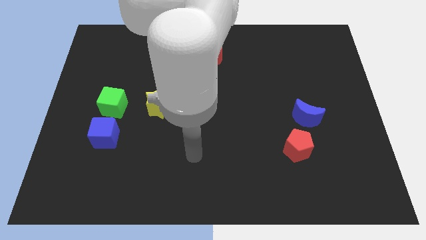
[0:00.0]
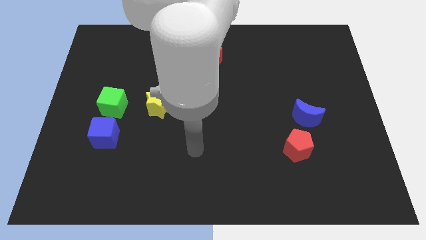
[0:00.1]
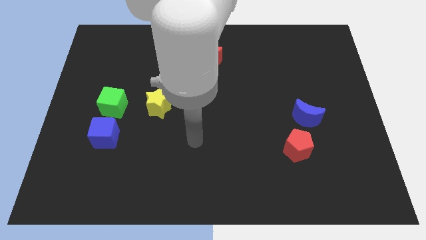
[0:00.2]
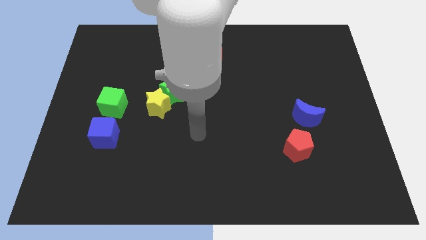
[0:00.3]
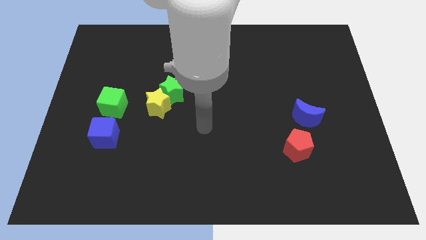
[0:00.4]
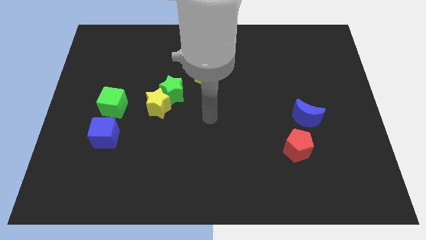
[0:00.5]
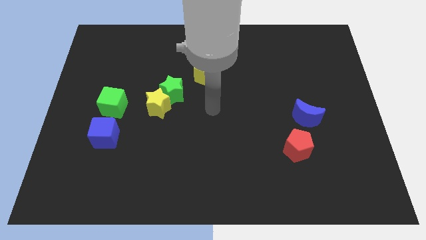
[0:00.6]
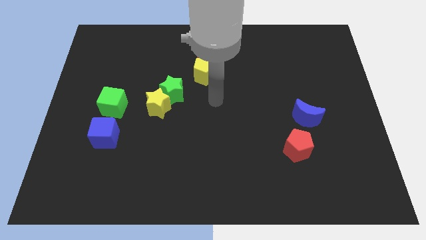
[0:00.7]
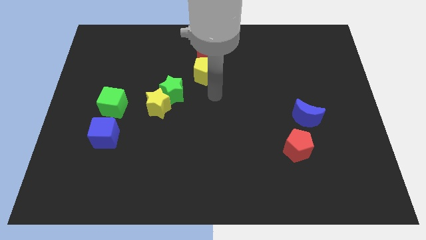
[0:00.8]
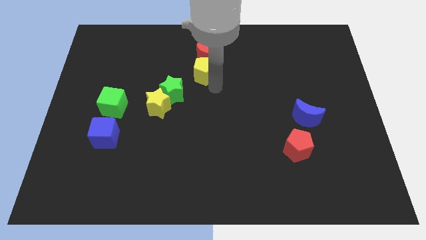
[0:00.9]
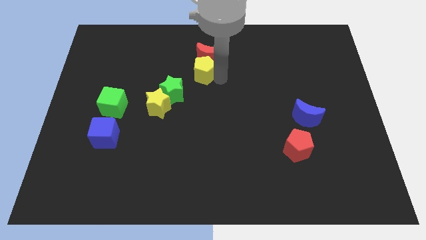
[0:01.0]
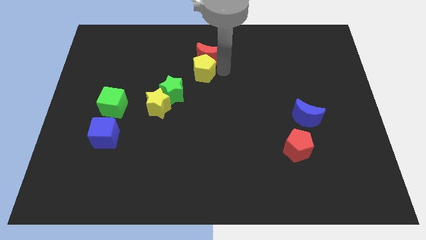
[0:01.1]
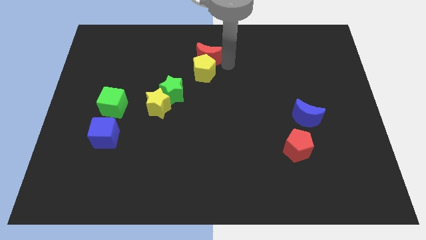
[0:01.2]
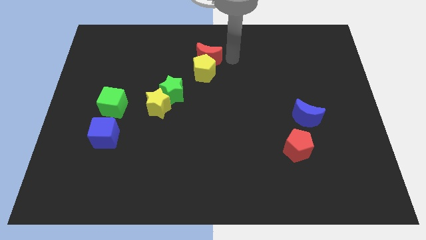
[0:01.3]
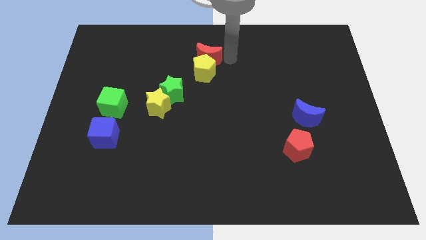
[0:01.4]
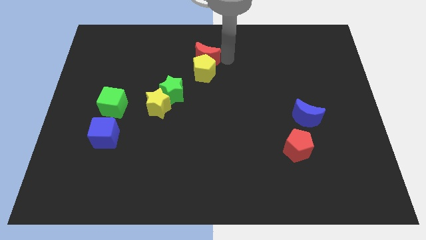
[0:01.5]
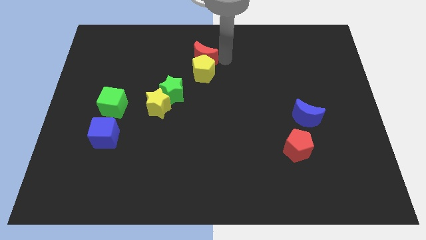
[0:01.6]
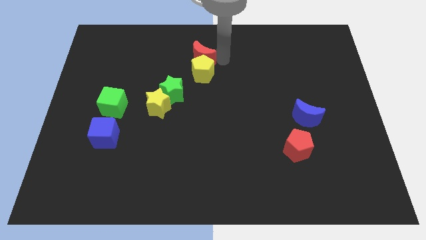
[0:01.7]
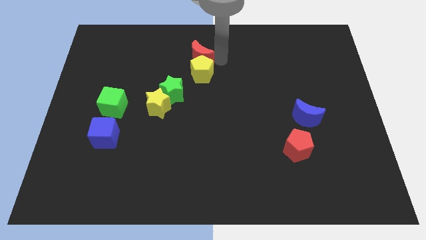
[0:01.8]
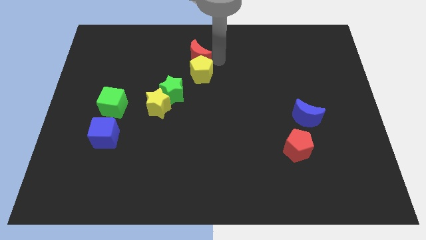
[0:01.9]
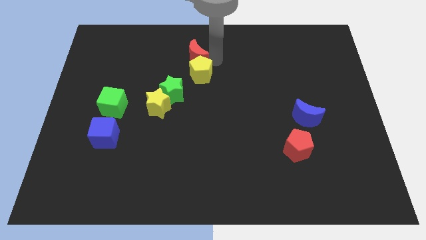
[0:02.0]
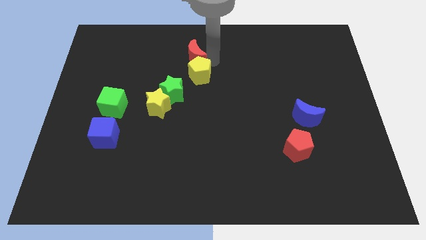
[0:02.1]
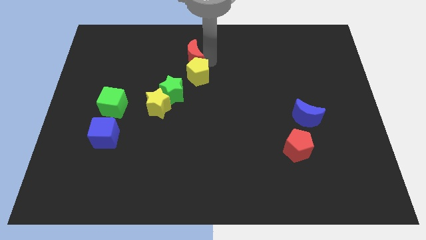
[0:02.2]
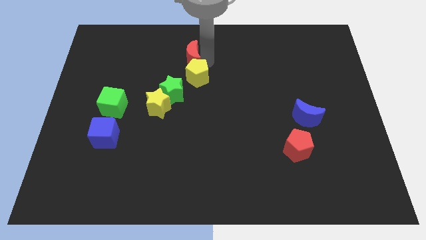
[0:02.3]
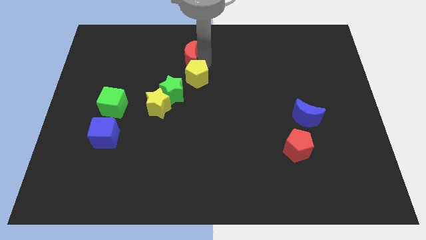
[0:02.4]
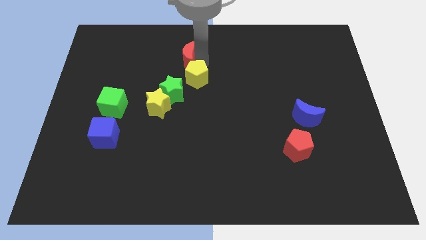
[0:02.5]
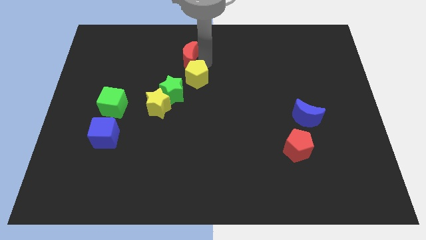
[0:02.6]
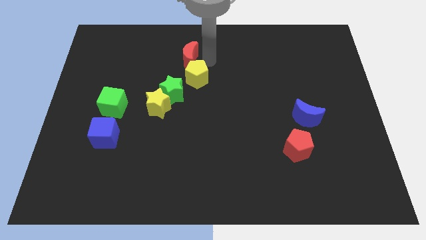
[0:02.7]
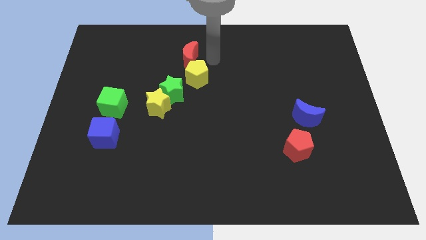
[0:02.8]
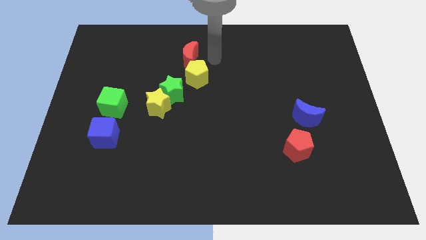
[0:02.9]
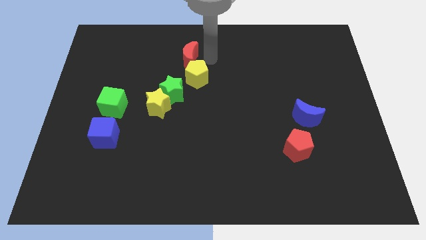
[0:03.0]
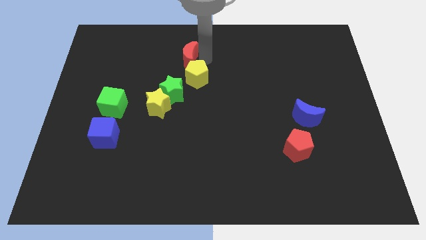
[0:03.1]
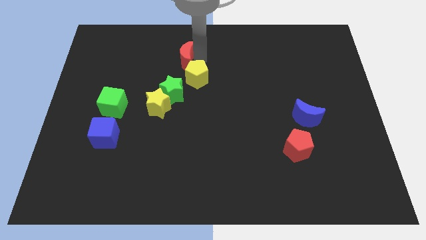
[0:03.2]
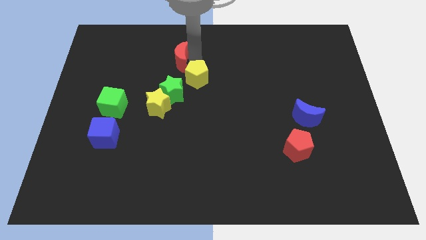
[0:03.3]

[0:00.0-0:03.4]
move the red moon left a little

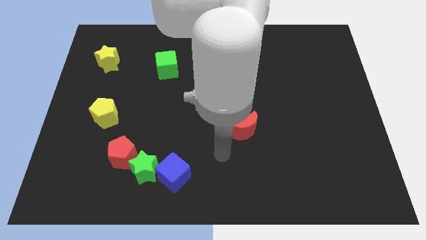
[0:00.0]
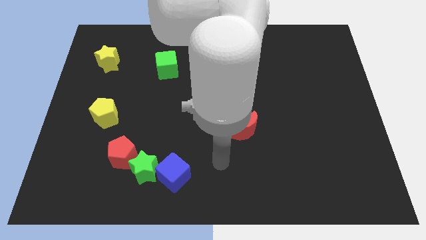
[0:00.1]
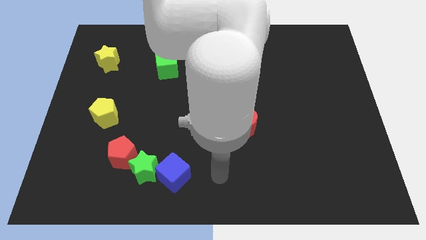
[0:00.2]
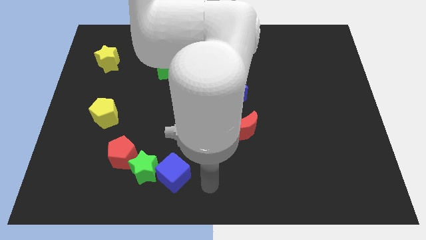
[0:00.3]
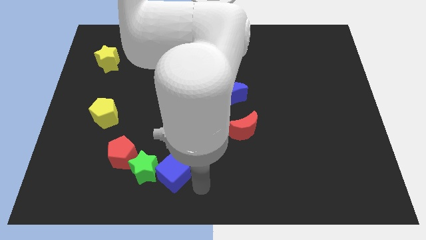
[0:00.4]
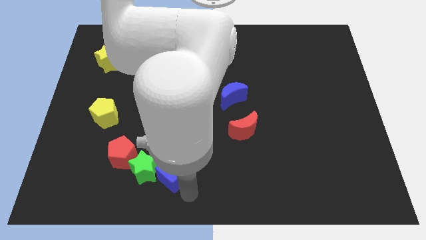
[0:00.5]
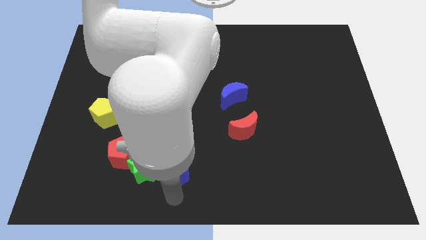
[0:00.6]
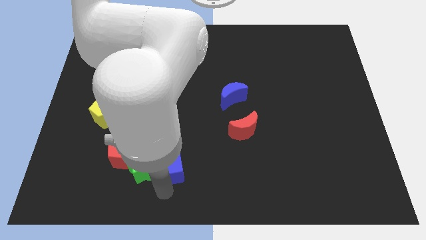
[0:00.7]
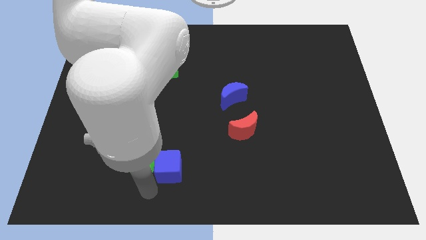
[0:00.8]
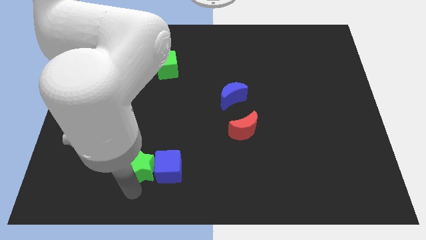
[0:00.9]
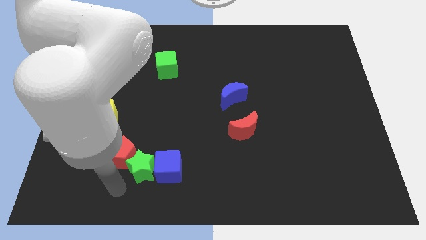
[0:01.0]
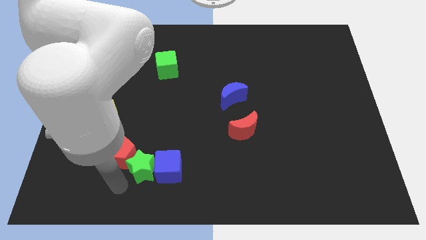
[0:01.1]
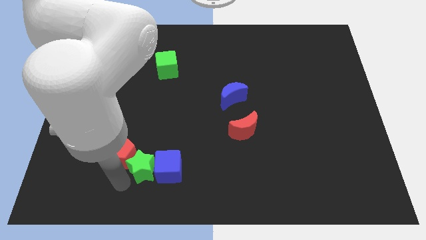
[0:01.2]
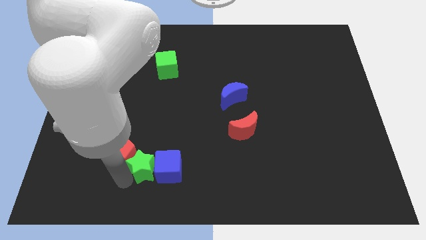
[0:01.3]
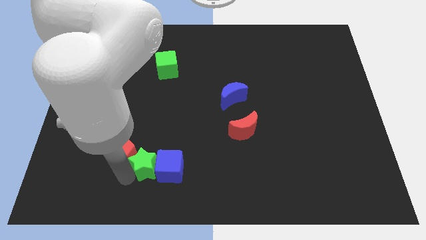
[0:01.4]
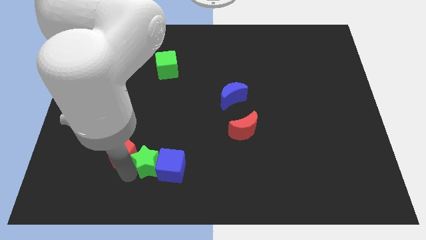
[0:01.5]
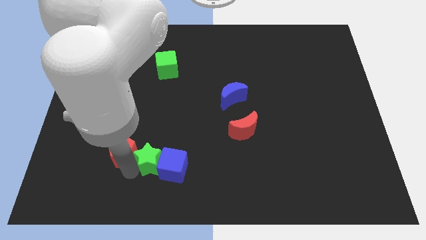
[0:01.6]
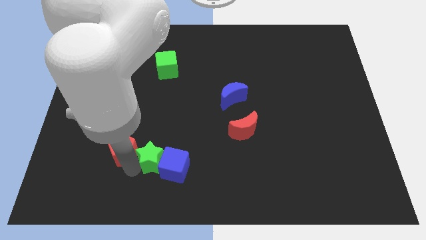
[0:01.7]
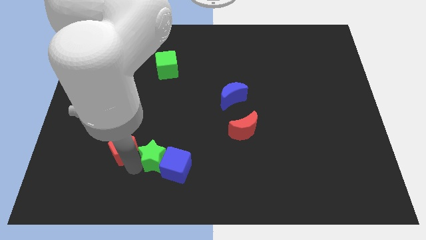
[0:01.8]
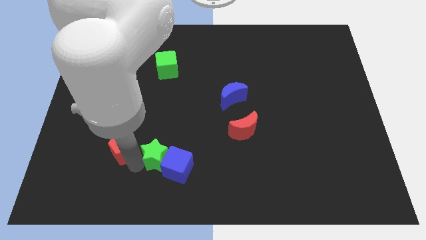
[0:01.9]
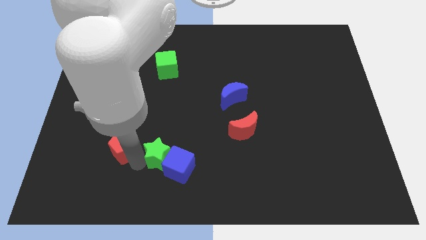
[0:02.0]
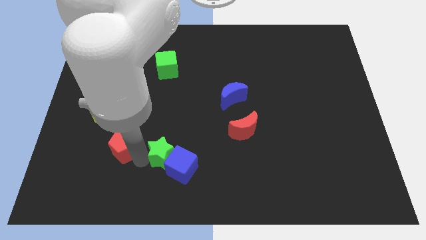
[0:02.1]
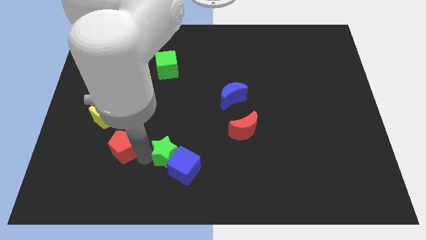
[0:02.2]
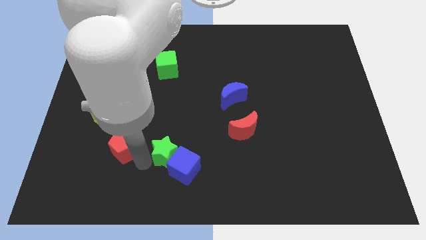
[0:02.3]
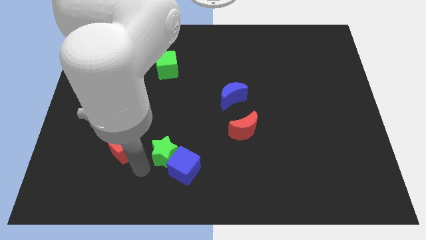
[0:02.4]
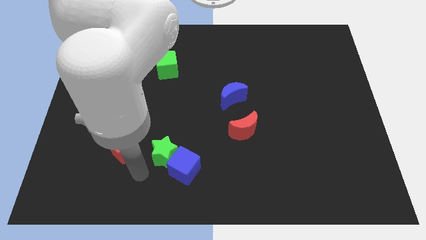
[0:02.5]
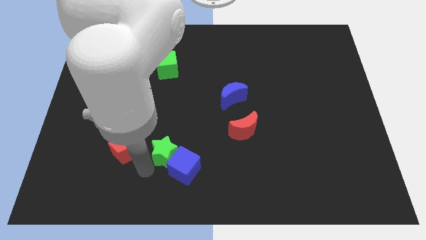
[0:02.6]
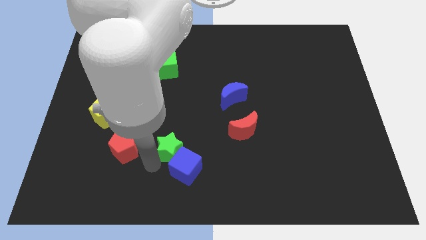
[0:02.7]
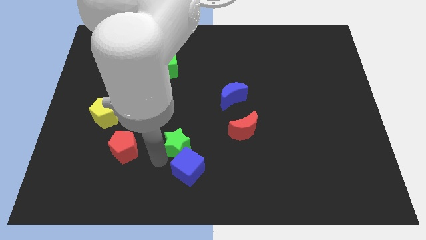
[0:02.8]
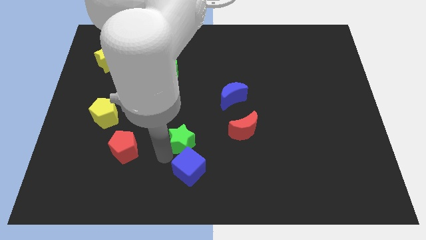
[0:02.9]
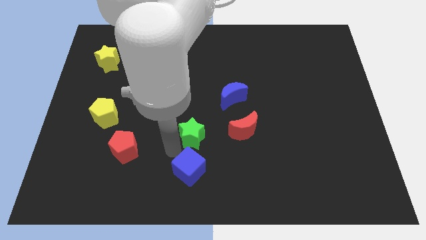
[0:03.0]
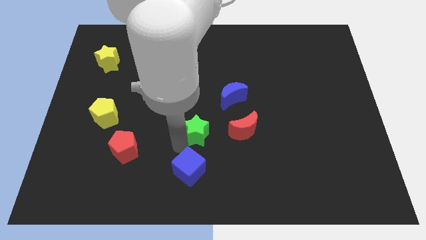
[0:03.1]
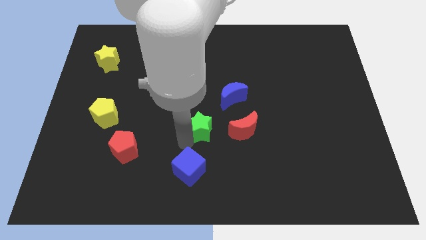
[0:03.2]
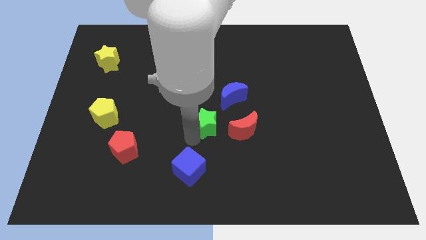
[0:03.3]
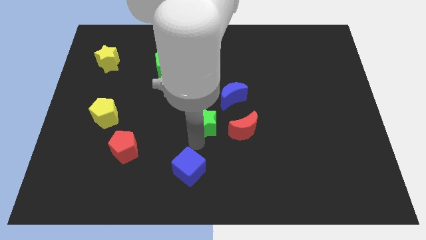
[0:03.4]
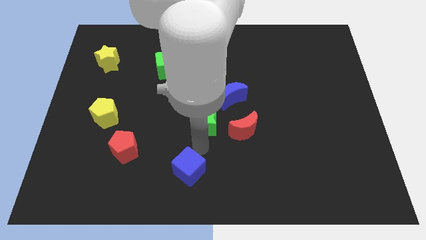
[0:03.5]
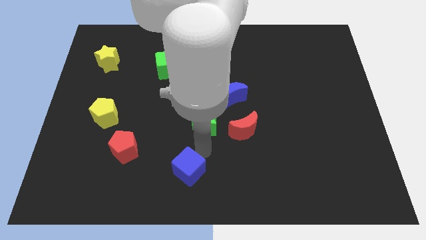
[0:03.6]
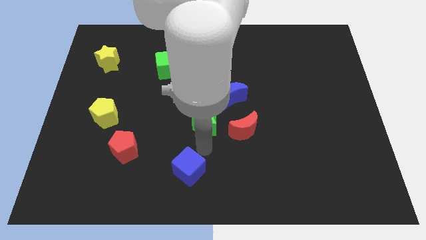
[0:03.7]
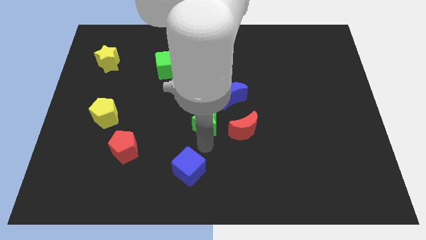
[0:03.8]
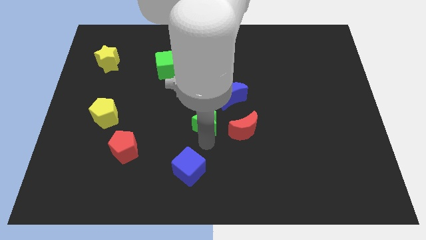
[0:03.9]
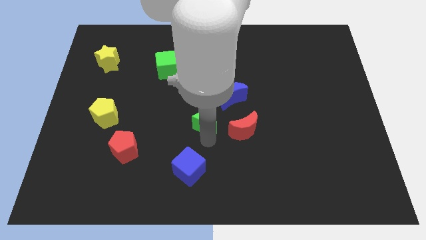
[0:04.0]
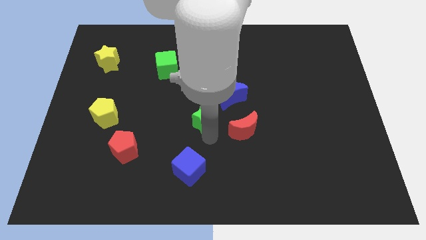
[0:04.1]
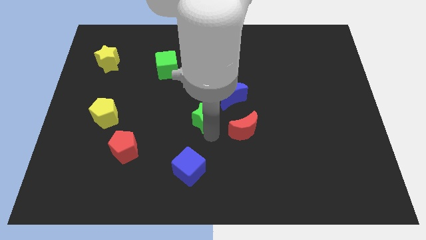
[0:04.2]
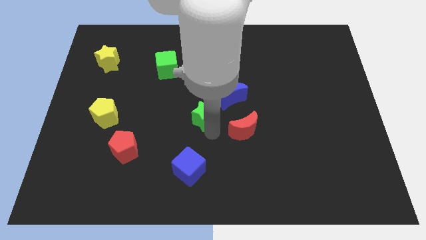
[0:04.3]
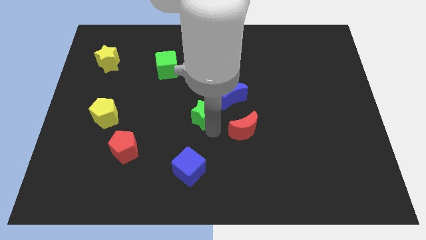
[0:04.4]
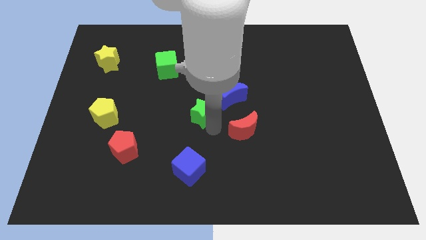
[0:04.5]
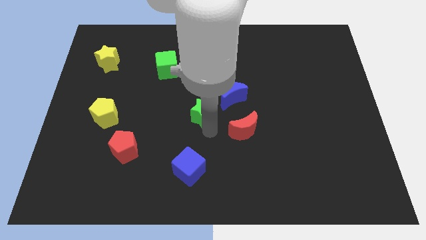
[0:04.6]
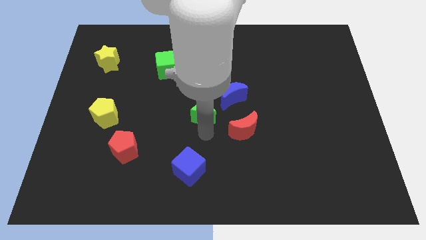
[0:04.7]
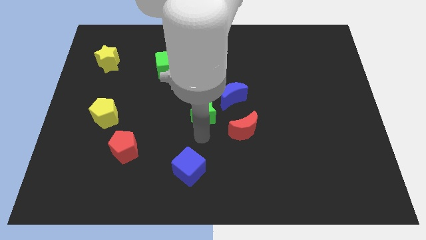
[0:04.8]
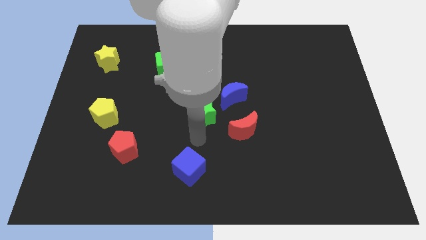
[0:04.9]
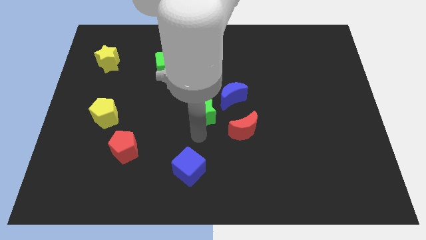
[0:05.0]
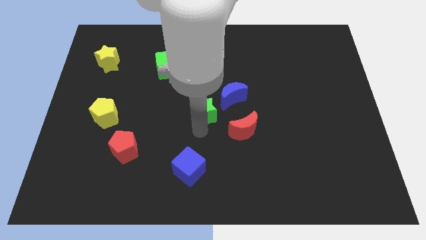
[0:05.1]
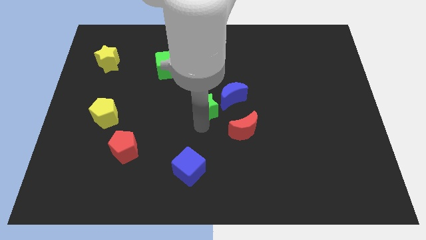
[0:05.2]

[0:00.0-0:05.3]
push the green star diagonally upwards and right
